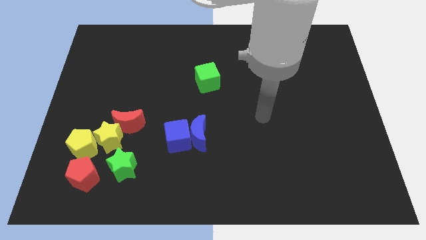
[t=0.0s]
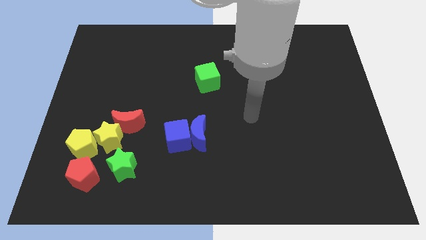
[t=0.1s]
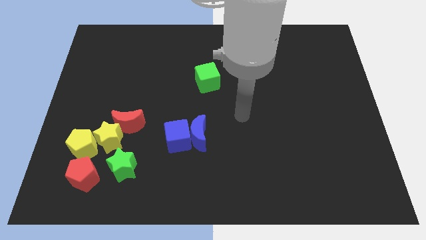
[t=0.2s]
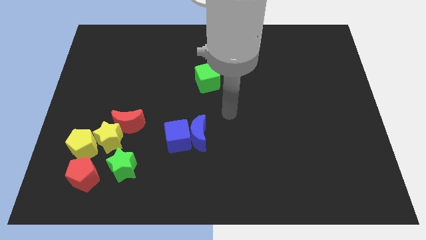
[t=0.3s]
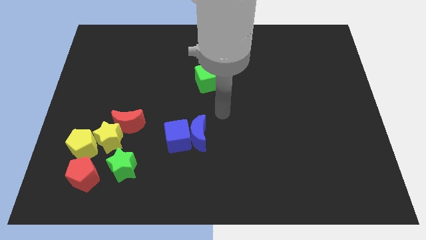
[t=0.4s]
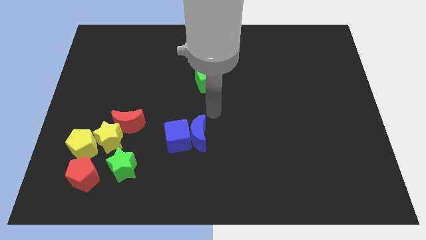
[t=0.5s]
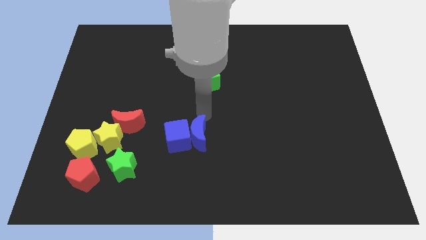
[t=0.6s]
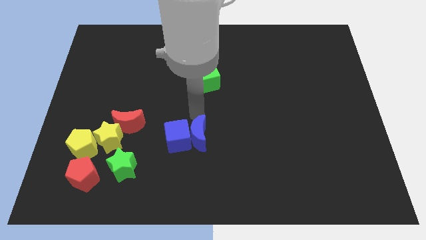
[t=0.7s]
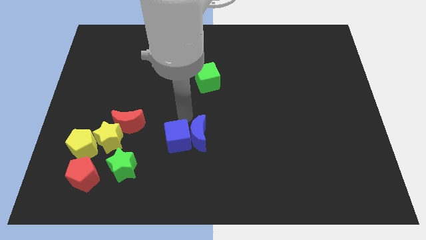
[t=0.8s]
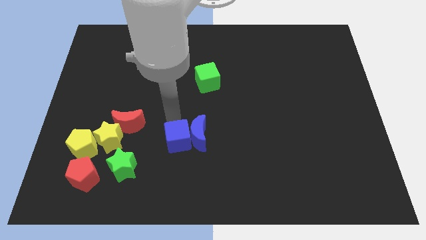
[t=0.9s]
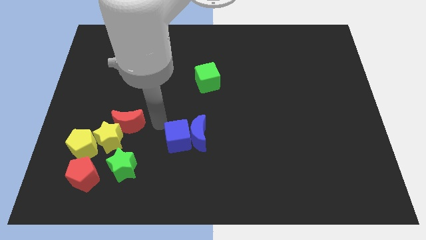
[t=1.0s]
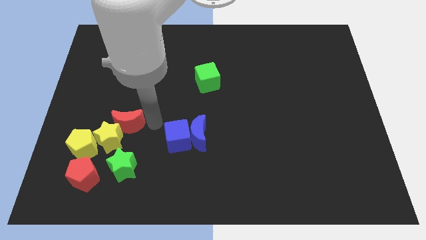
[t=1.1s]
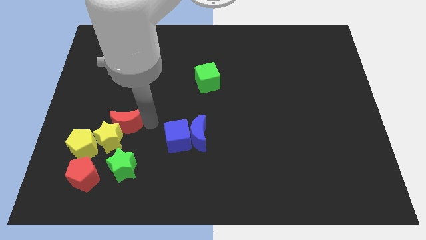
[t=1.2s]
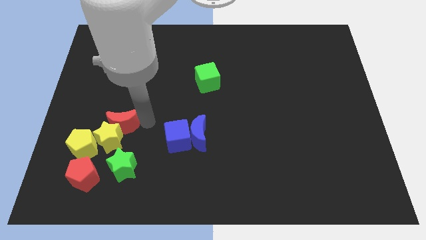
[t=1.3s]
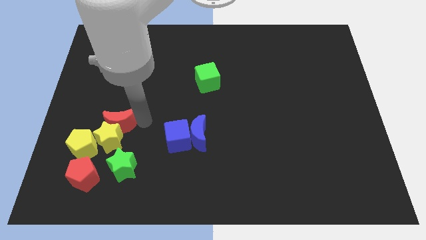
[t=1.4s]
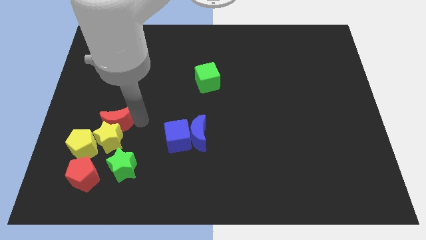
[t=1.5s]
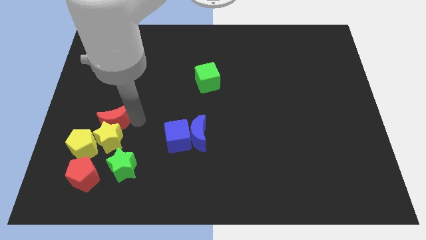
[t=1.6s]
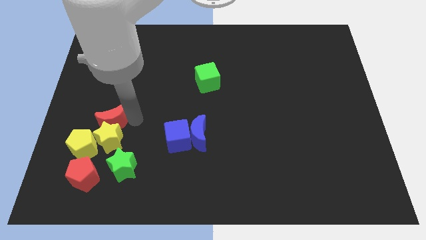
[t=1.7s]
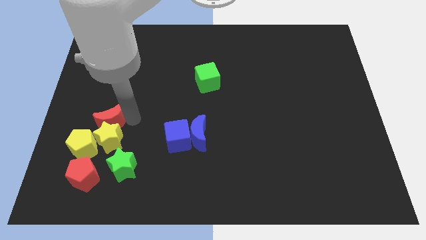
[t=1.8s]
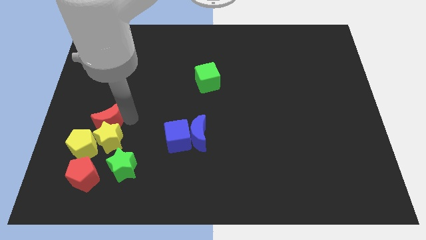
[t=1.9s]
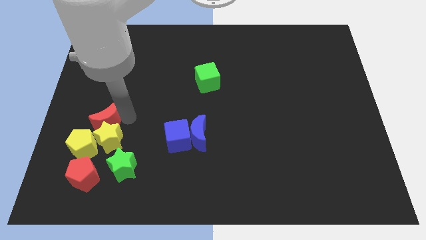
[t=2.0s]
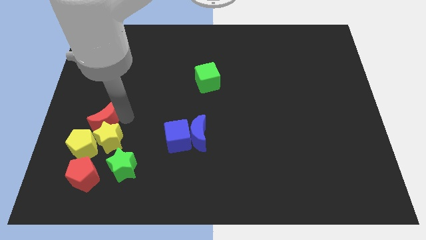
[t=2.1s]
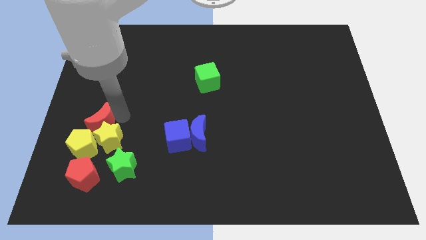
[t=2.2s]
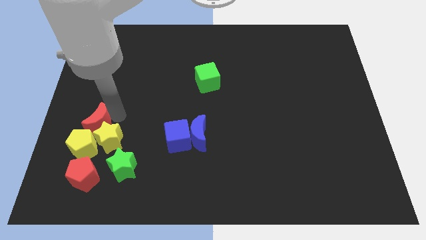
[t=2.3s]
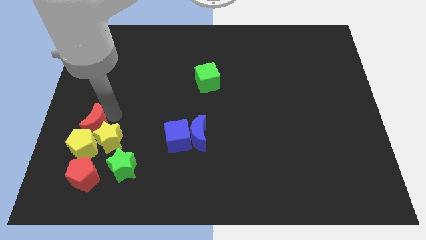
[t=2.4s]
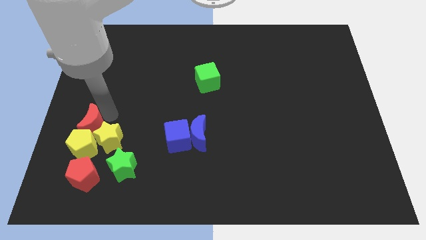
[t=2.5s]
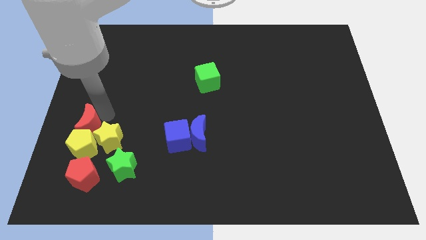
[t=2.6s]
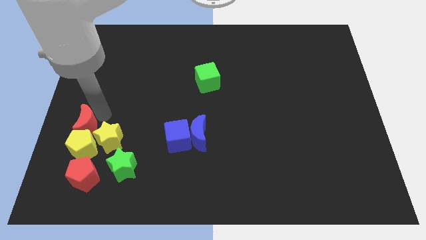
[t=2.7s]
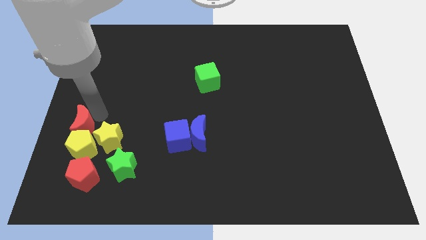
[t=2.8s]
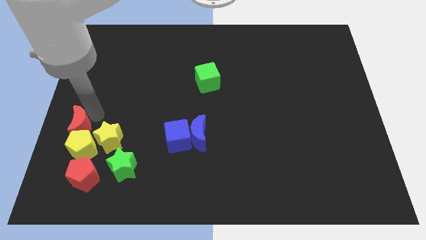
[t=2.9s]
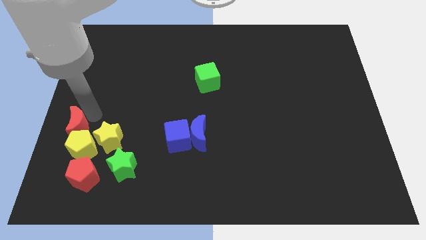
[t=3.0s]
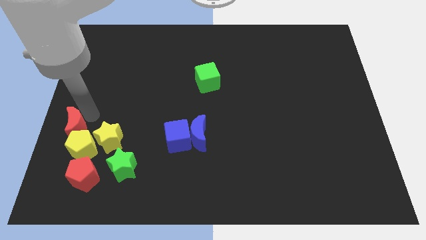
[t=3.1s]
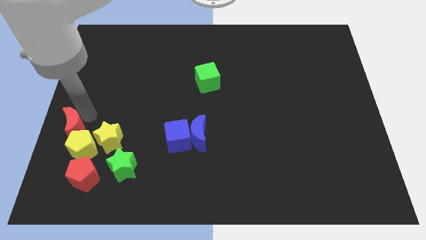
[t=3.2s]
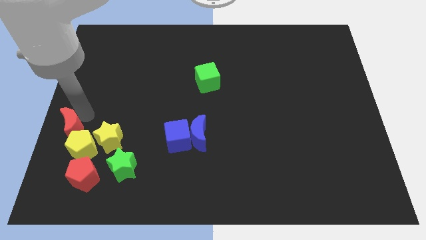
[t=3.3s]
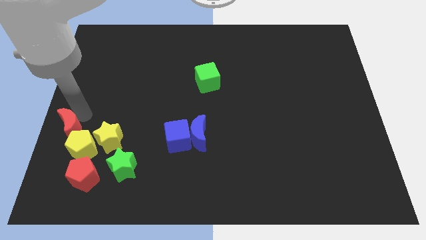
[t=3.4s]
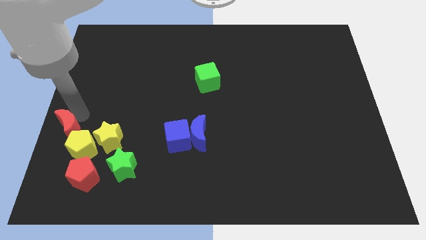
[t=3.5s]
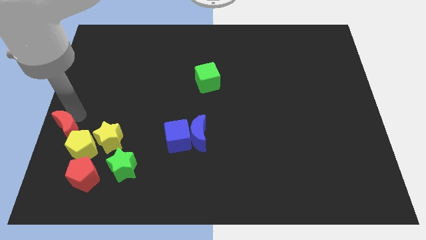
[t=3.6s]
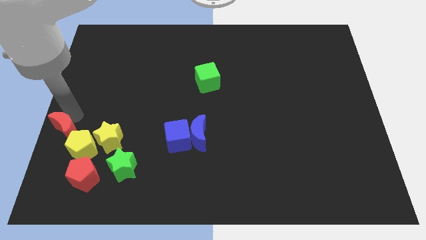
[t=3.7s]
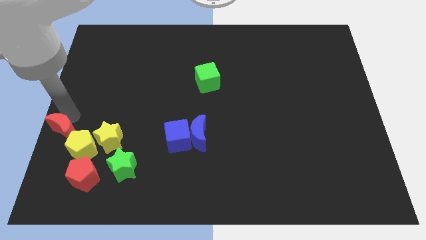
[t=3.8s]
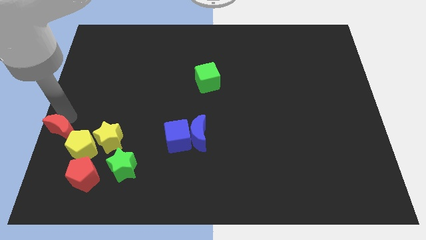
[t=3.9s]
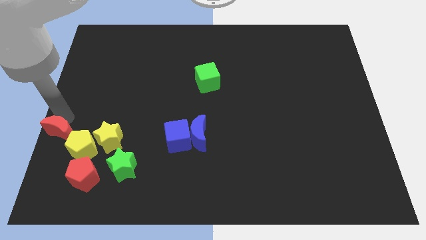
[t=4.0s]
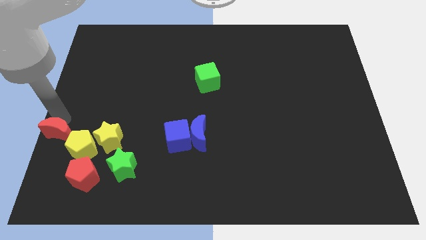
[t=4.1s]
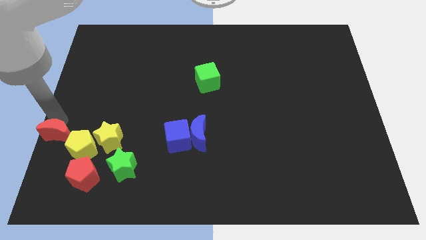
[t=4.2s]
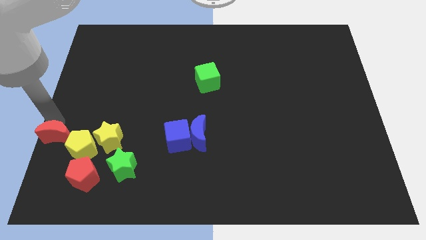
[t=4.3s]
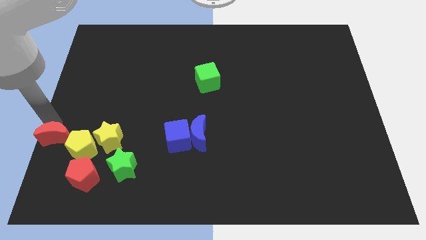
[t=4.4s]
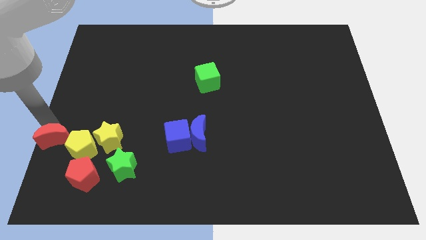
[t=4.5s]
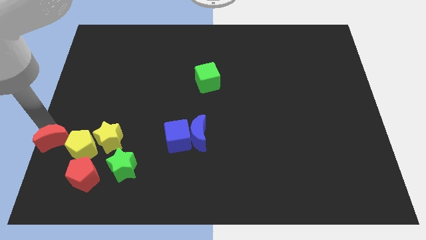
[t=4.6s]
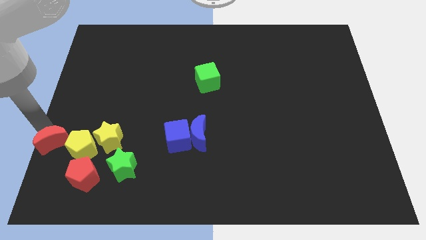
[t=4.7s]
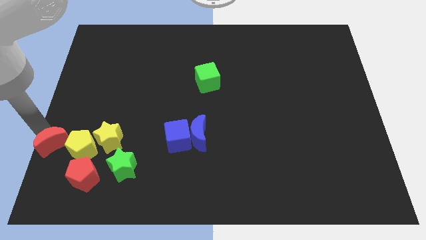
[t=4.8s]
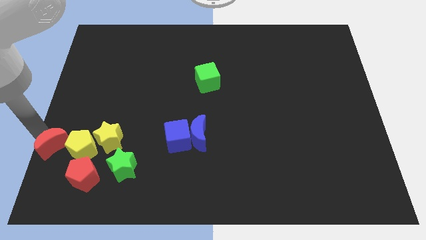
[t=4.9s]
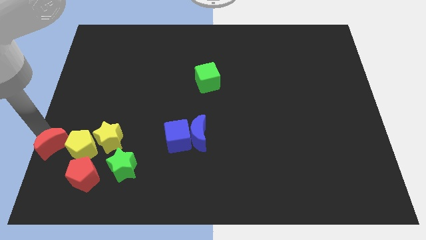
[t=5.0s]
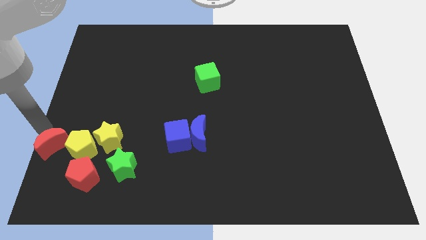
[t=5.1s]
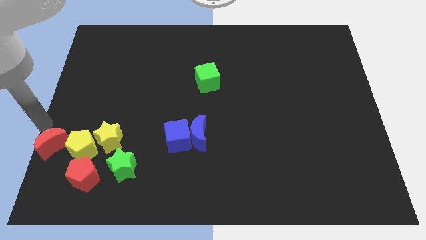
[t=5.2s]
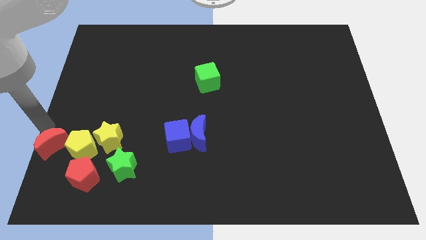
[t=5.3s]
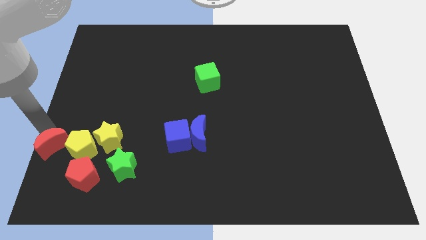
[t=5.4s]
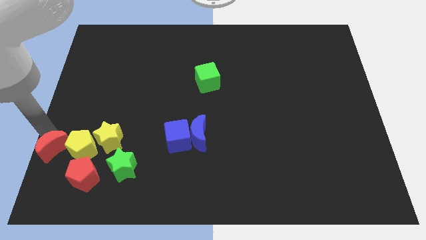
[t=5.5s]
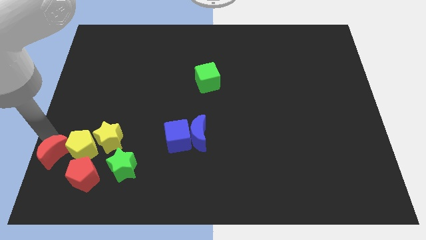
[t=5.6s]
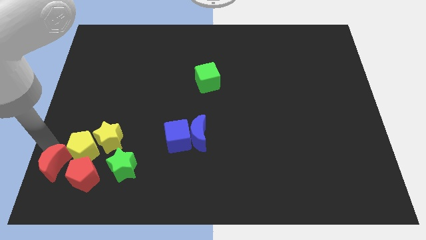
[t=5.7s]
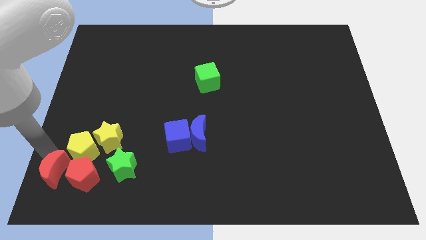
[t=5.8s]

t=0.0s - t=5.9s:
push the red moon next to the red pentagon

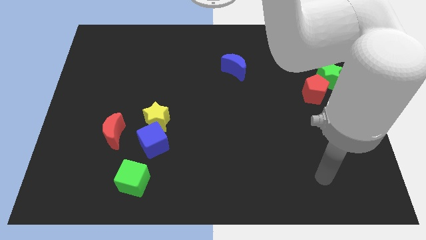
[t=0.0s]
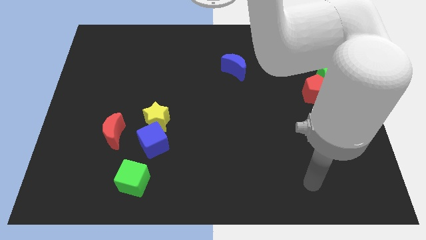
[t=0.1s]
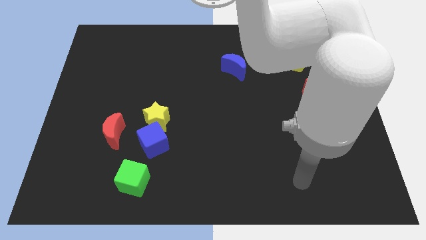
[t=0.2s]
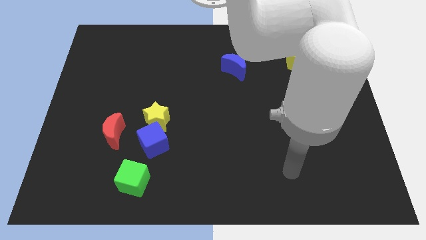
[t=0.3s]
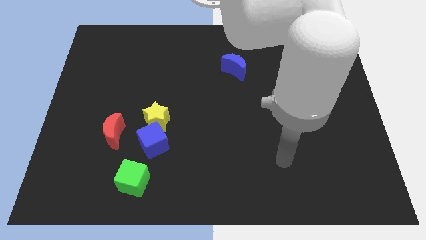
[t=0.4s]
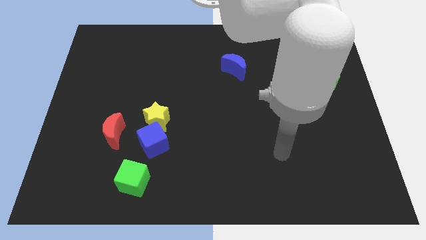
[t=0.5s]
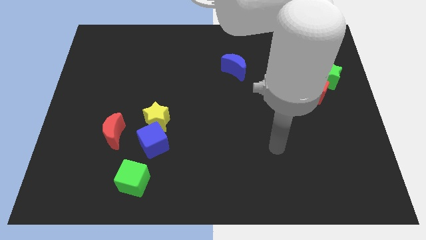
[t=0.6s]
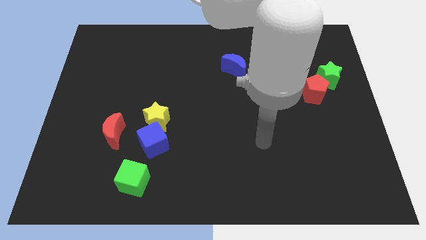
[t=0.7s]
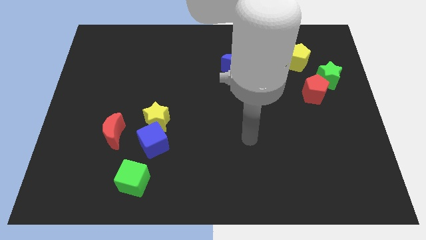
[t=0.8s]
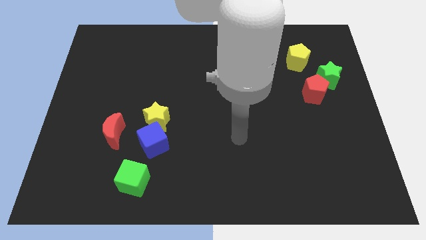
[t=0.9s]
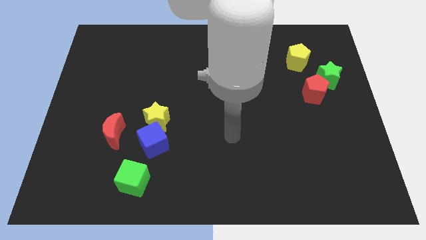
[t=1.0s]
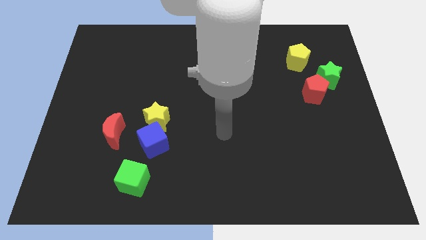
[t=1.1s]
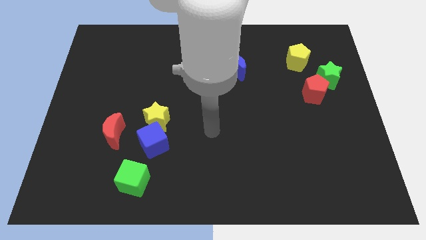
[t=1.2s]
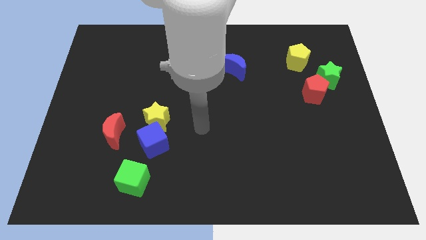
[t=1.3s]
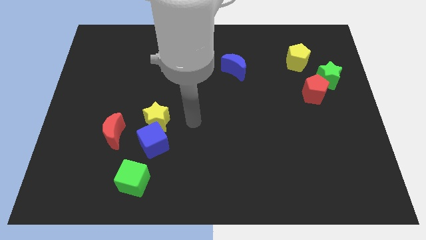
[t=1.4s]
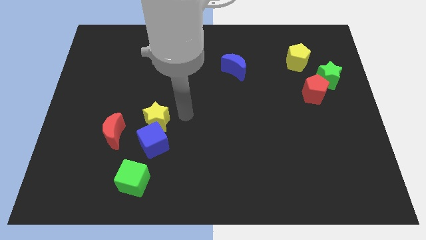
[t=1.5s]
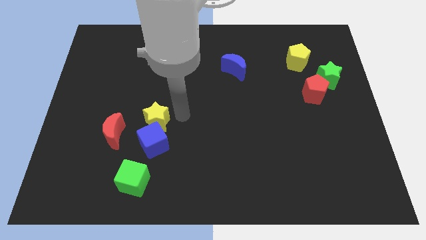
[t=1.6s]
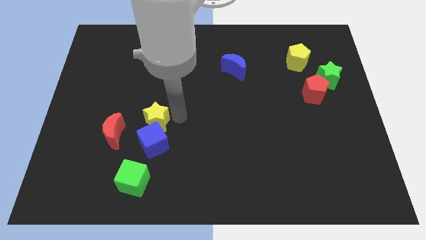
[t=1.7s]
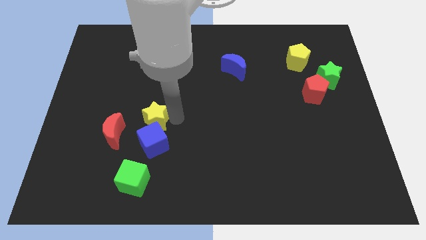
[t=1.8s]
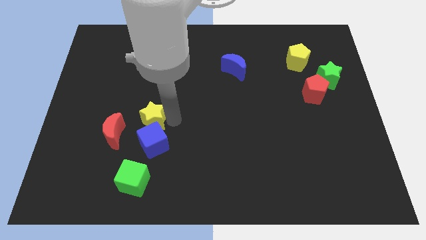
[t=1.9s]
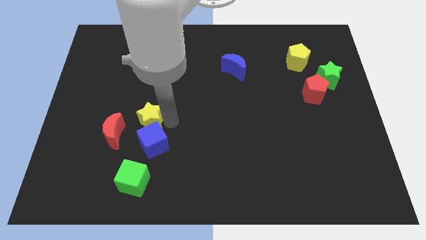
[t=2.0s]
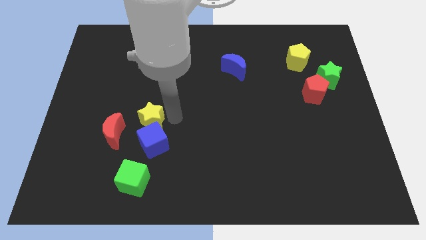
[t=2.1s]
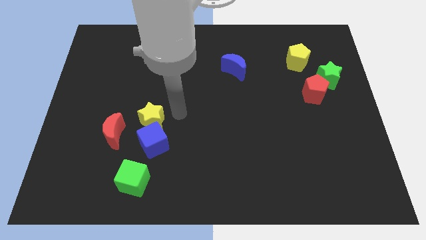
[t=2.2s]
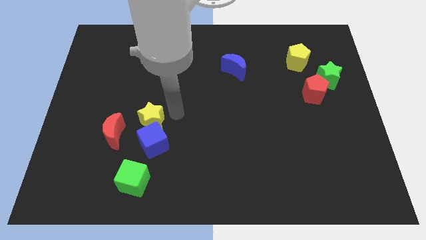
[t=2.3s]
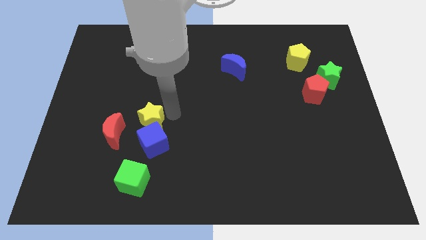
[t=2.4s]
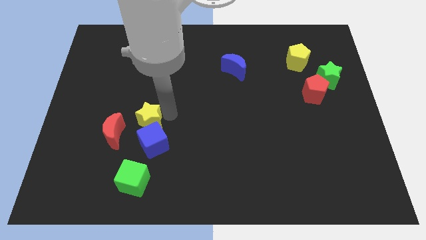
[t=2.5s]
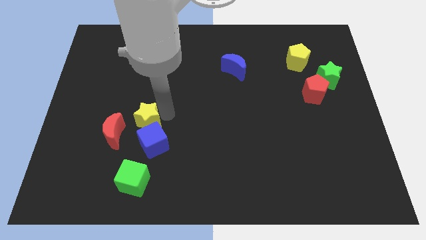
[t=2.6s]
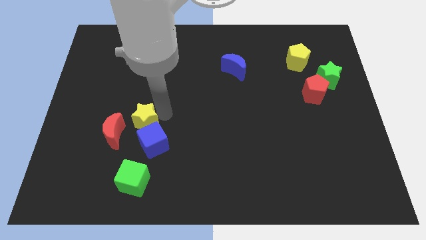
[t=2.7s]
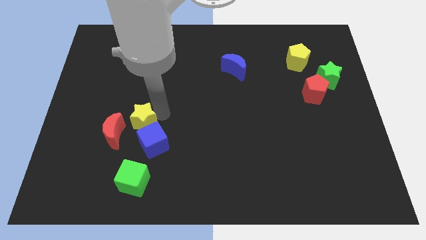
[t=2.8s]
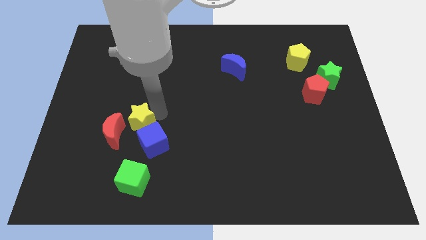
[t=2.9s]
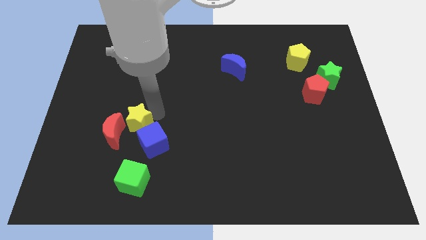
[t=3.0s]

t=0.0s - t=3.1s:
slide the yellow star close to the red moon
